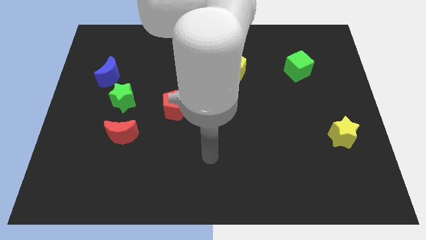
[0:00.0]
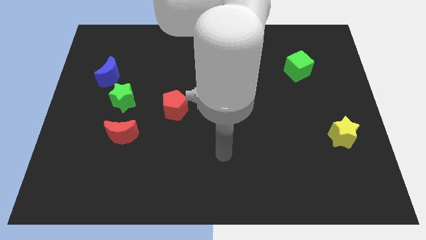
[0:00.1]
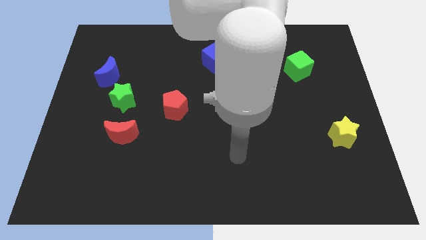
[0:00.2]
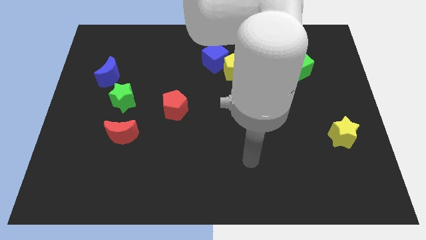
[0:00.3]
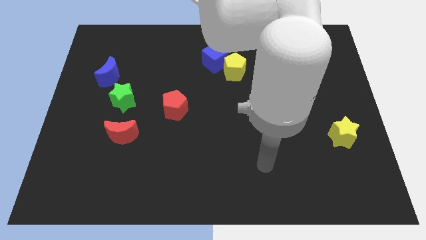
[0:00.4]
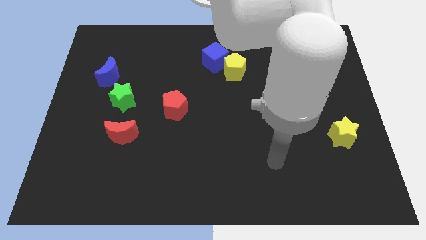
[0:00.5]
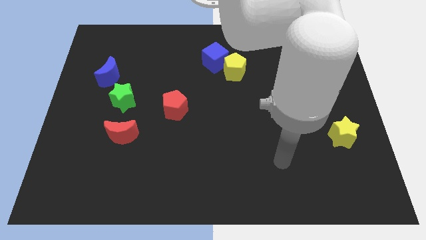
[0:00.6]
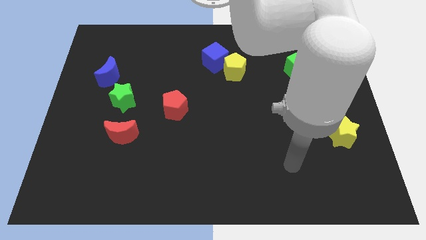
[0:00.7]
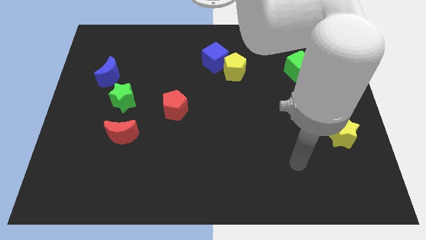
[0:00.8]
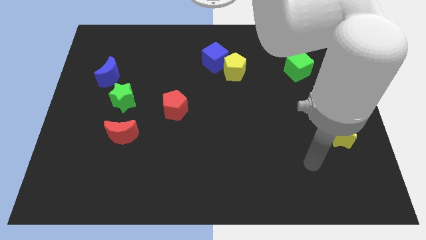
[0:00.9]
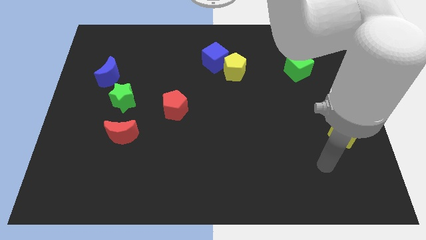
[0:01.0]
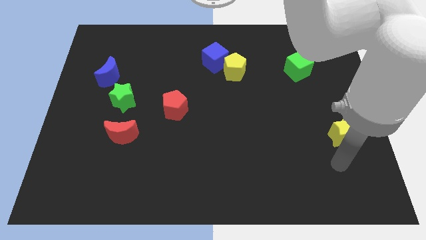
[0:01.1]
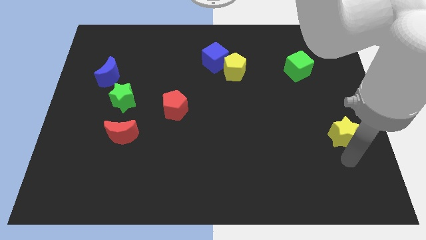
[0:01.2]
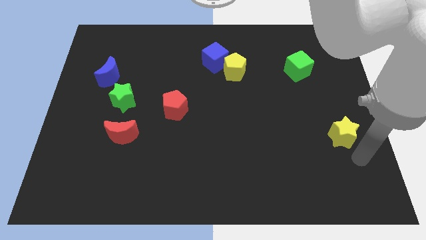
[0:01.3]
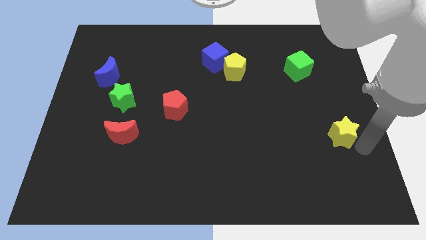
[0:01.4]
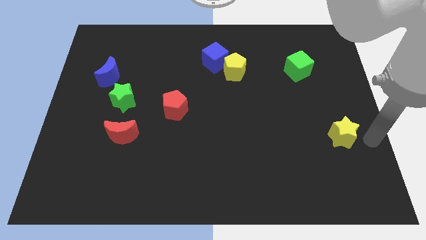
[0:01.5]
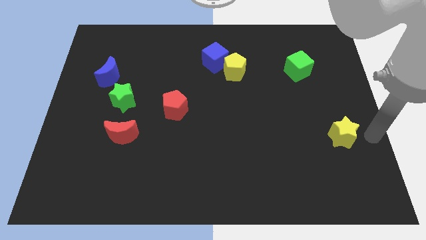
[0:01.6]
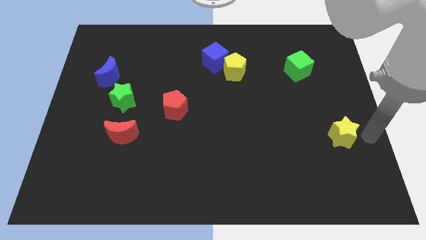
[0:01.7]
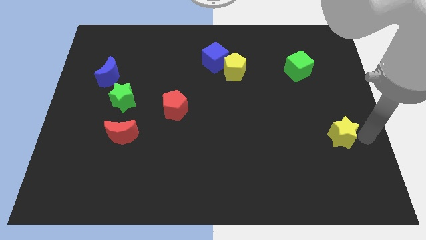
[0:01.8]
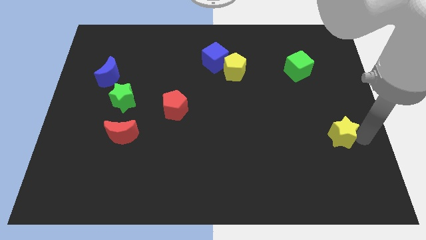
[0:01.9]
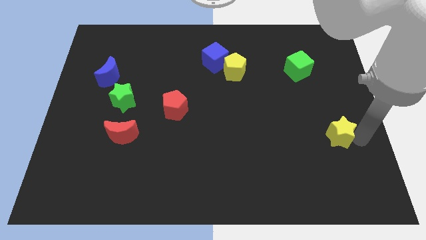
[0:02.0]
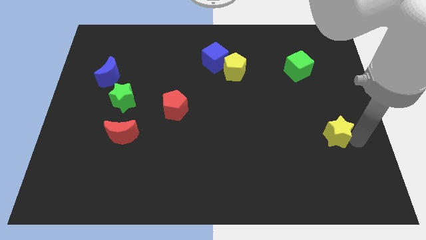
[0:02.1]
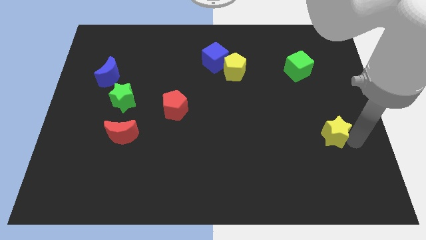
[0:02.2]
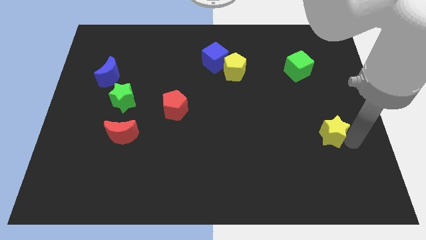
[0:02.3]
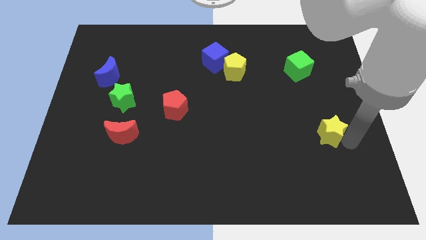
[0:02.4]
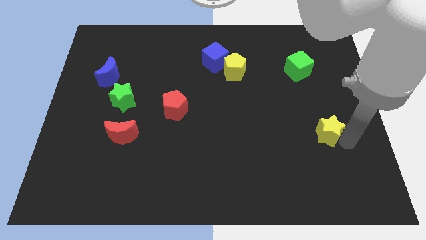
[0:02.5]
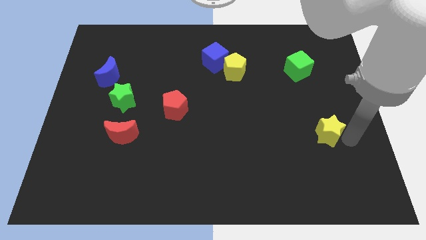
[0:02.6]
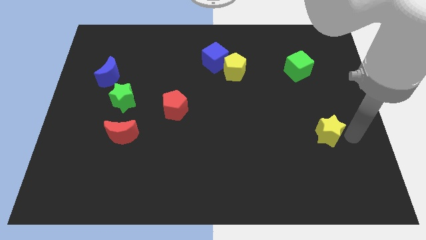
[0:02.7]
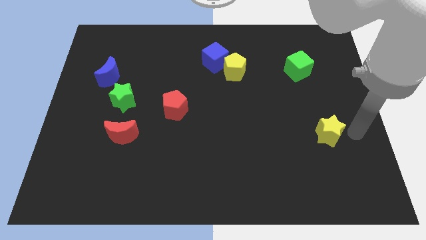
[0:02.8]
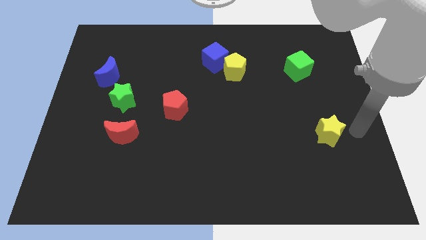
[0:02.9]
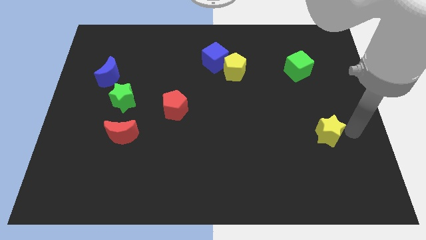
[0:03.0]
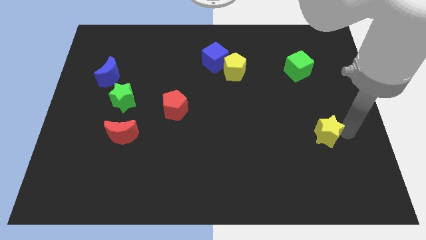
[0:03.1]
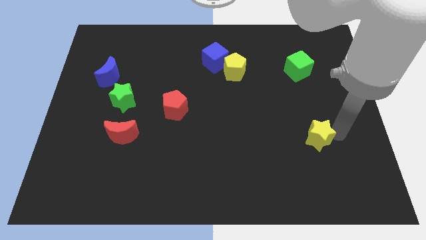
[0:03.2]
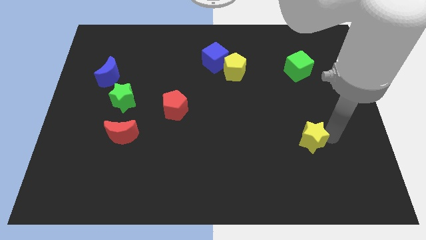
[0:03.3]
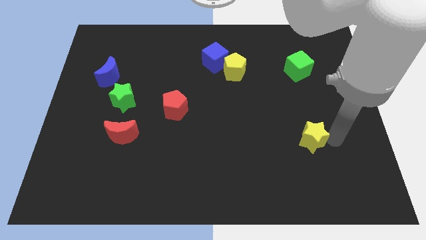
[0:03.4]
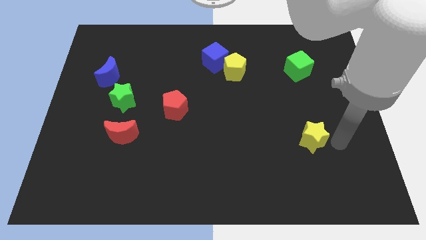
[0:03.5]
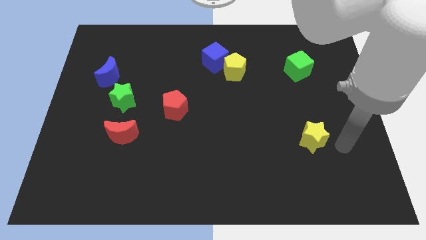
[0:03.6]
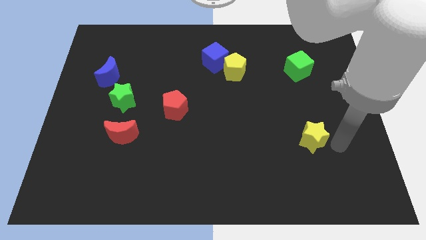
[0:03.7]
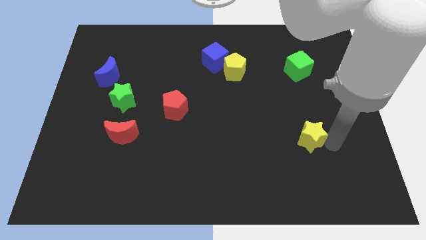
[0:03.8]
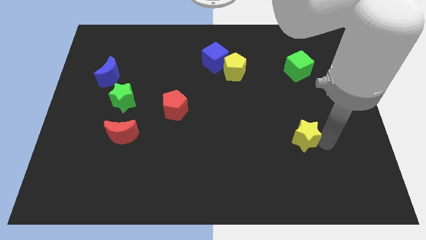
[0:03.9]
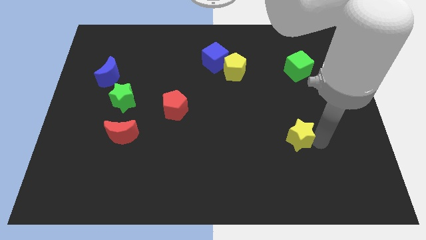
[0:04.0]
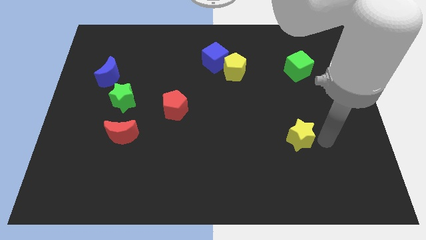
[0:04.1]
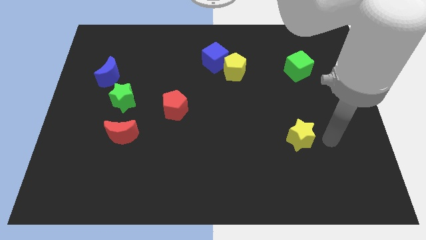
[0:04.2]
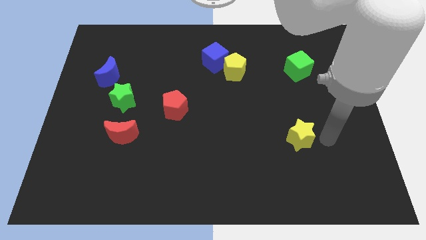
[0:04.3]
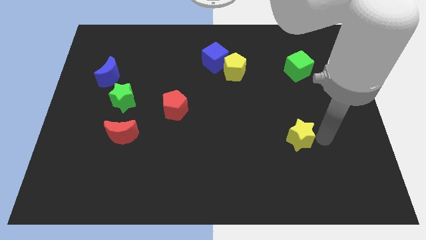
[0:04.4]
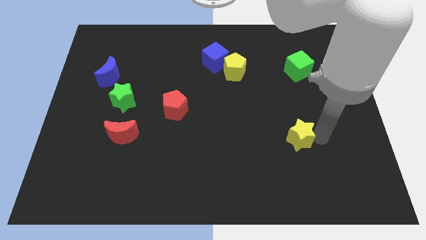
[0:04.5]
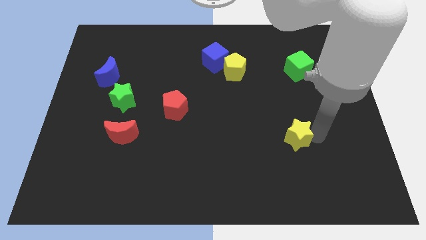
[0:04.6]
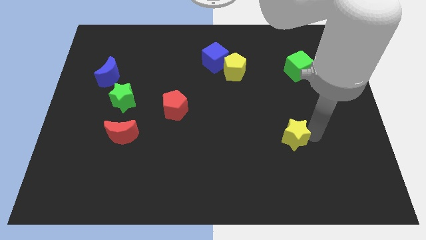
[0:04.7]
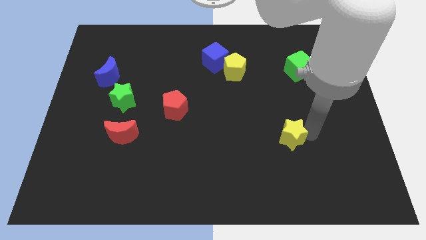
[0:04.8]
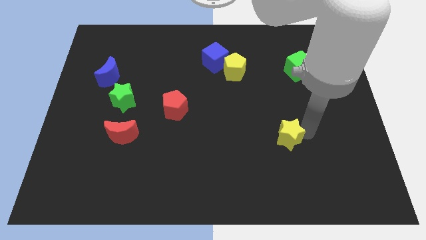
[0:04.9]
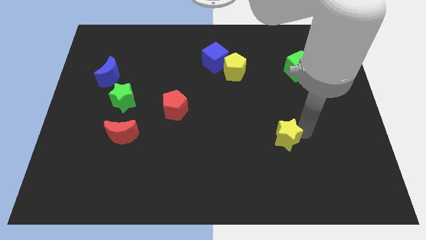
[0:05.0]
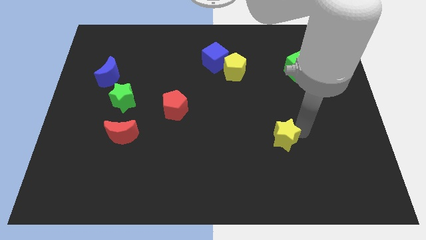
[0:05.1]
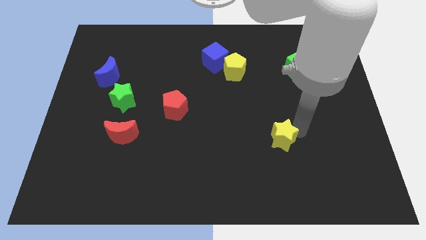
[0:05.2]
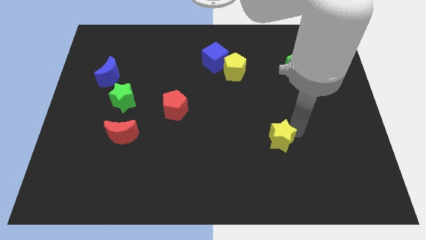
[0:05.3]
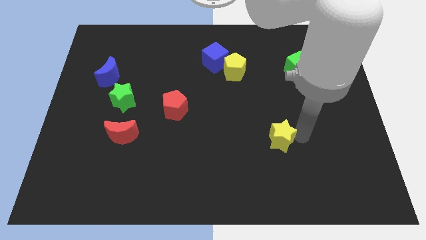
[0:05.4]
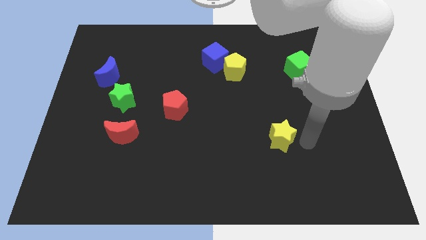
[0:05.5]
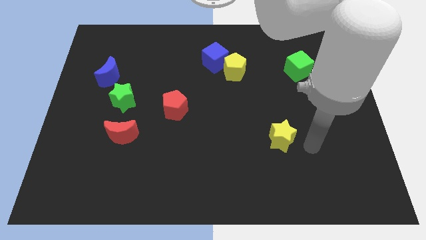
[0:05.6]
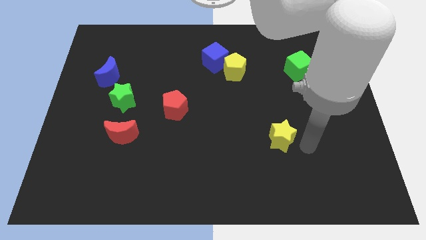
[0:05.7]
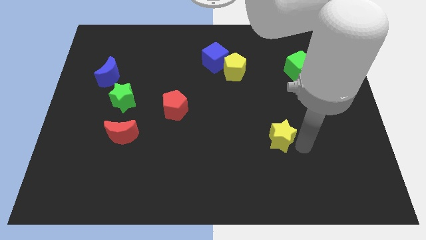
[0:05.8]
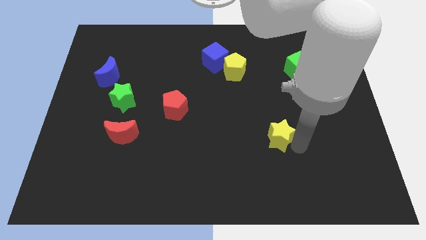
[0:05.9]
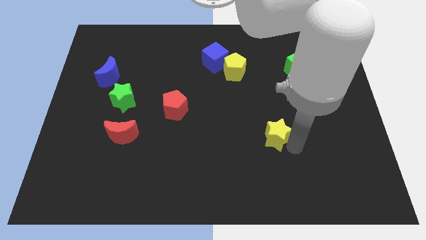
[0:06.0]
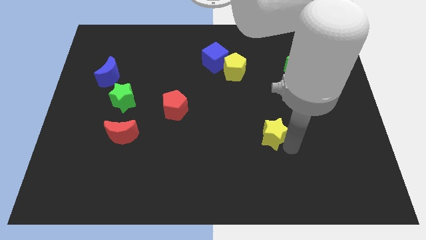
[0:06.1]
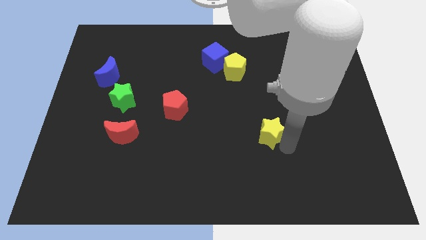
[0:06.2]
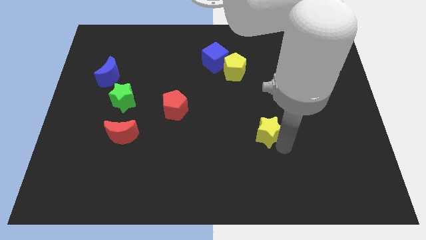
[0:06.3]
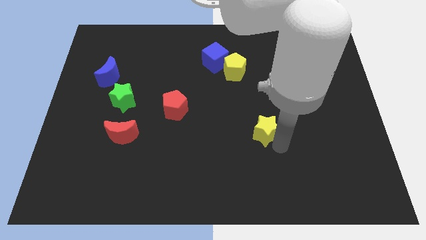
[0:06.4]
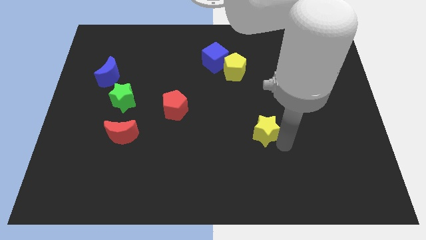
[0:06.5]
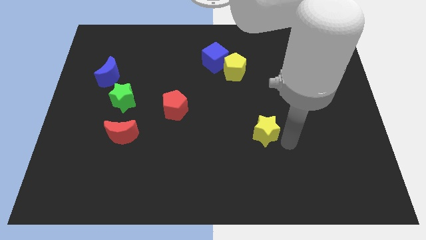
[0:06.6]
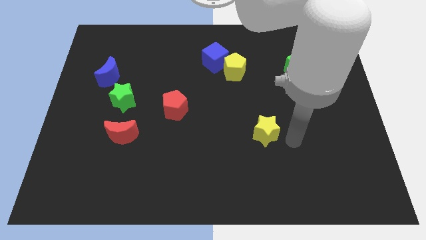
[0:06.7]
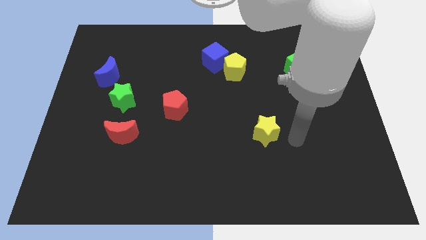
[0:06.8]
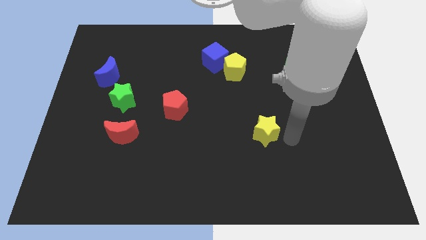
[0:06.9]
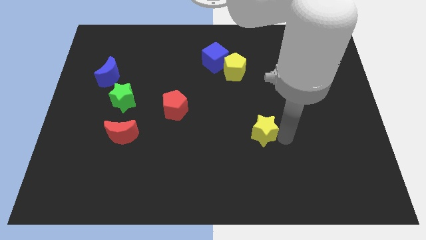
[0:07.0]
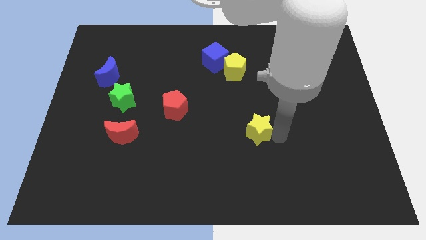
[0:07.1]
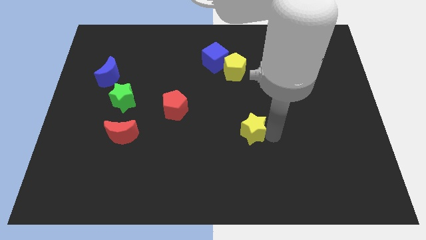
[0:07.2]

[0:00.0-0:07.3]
push the yellow star to the left

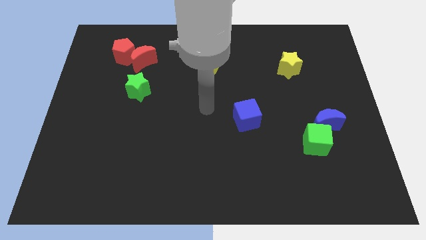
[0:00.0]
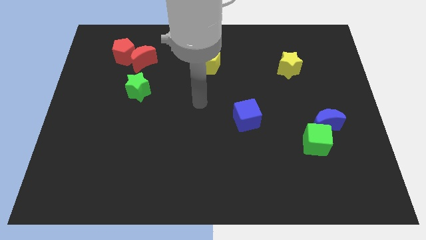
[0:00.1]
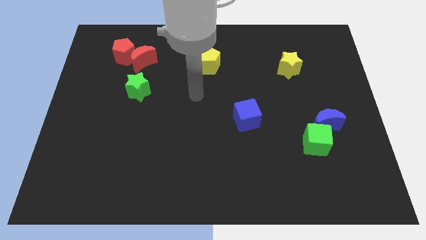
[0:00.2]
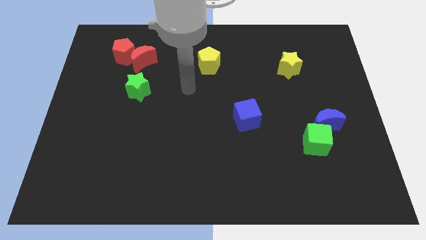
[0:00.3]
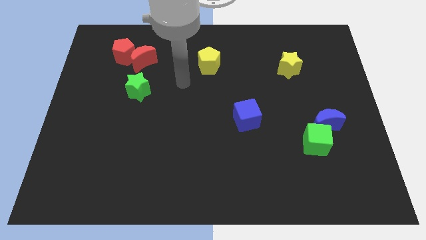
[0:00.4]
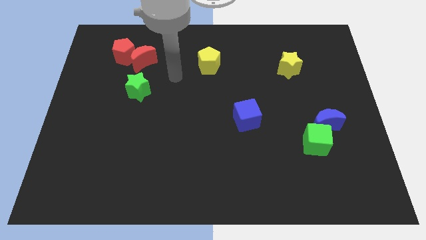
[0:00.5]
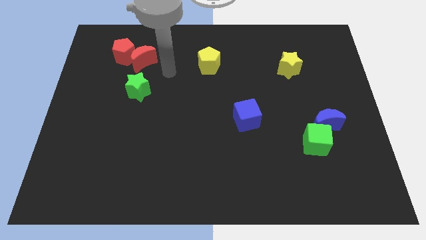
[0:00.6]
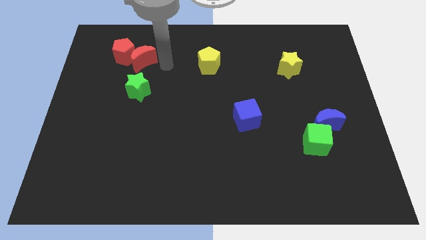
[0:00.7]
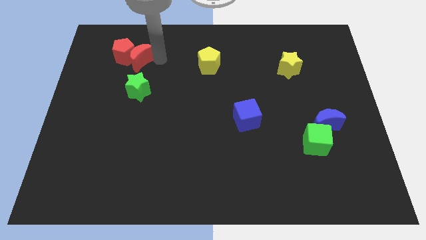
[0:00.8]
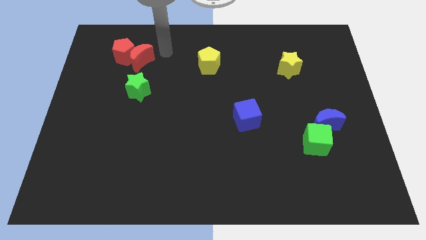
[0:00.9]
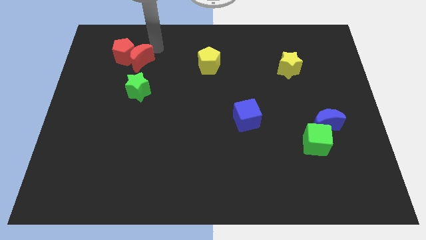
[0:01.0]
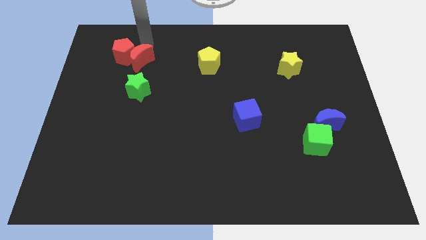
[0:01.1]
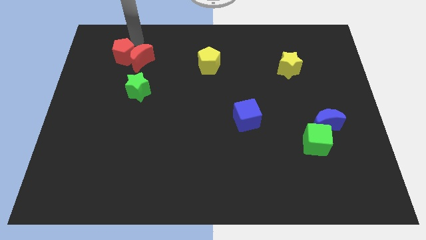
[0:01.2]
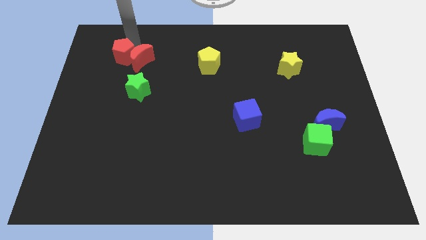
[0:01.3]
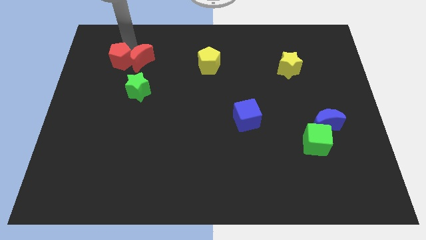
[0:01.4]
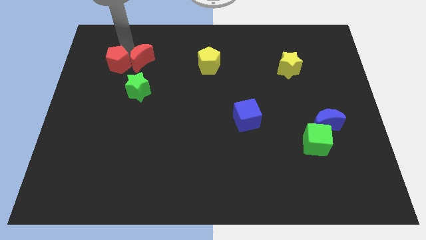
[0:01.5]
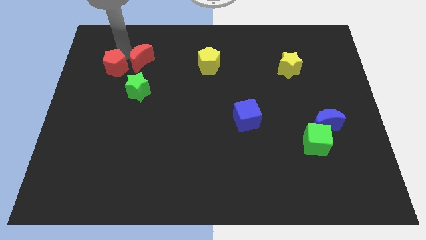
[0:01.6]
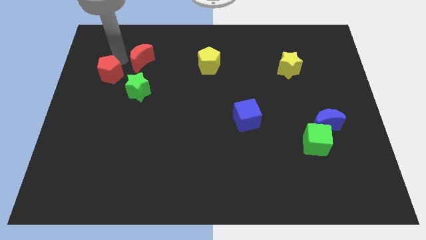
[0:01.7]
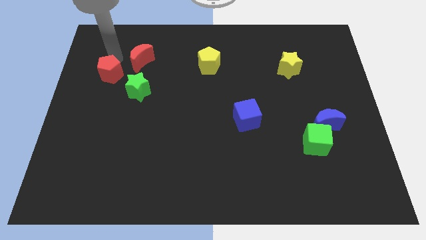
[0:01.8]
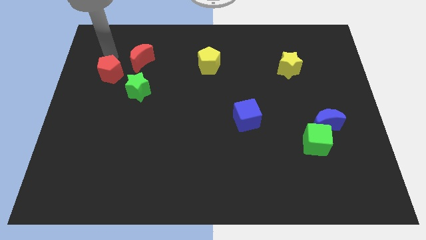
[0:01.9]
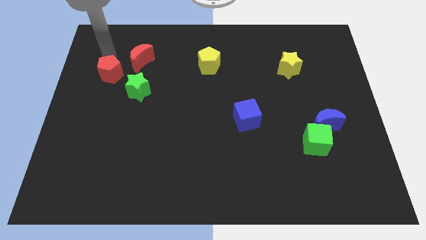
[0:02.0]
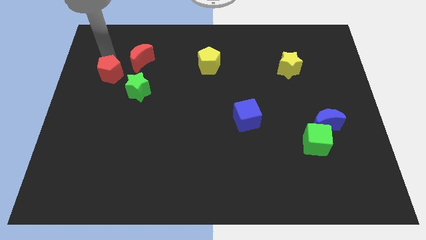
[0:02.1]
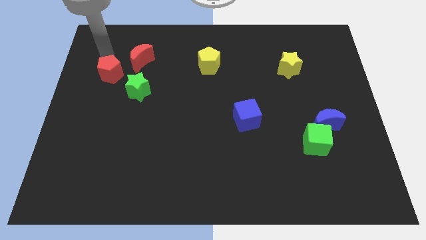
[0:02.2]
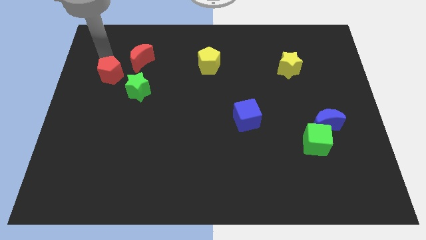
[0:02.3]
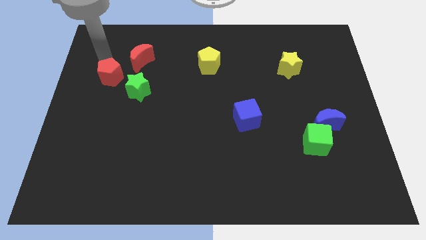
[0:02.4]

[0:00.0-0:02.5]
push the red pentagon a bit down
